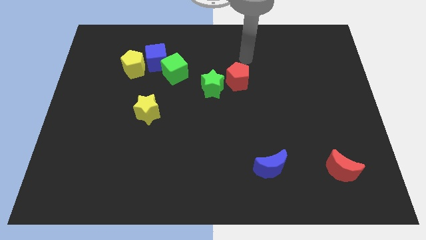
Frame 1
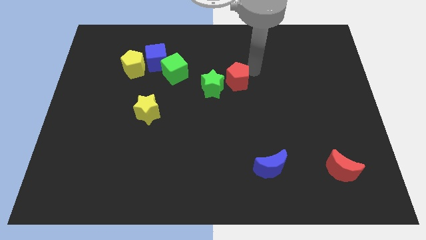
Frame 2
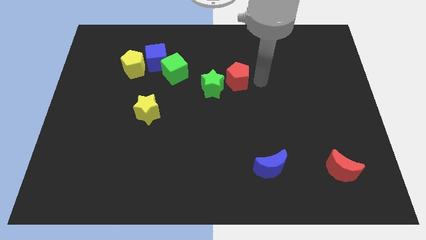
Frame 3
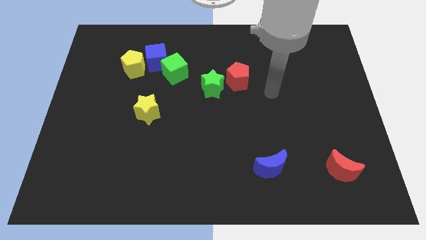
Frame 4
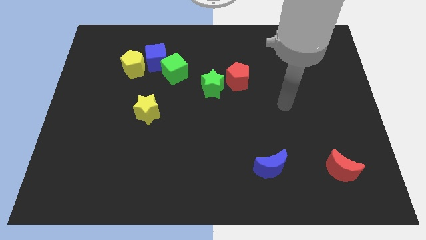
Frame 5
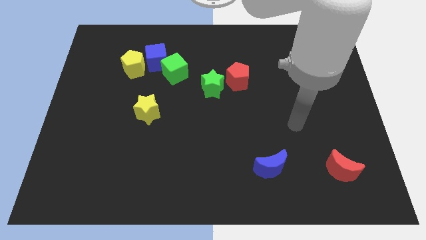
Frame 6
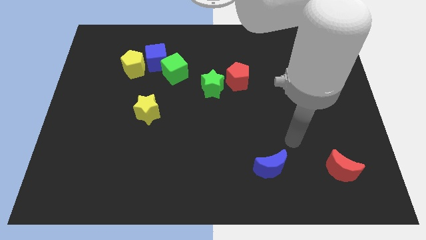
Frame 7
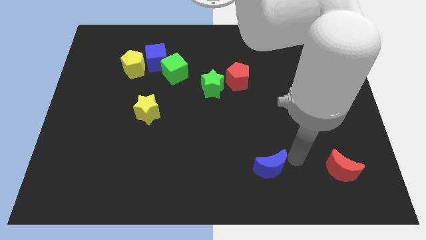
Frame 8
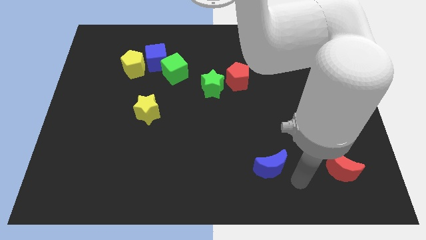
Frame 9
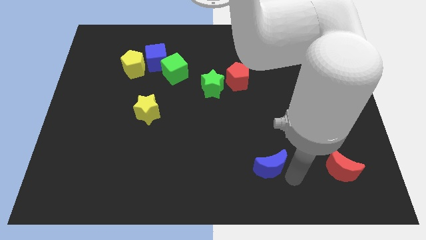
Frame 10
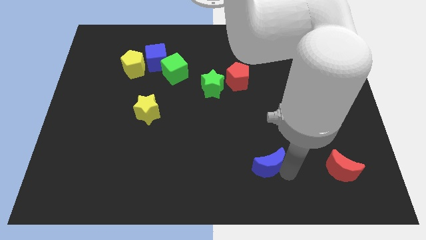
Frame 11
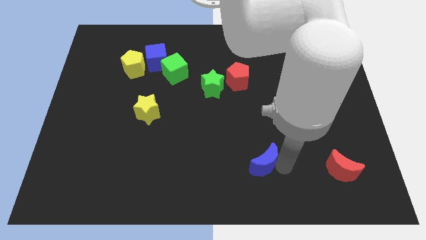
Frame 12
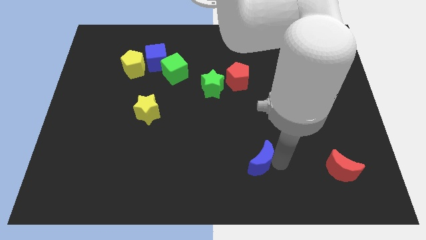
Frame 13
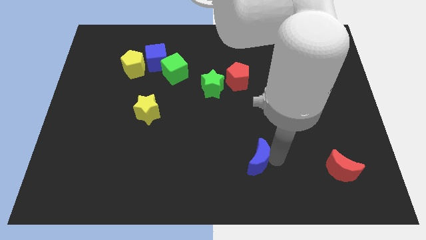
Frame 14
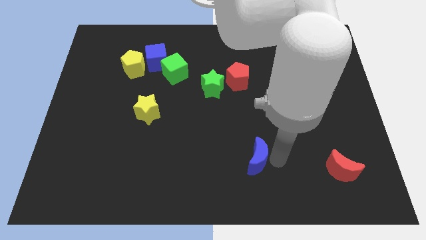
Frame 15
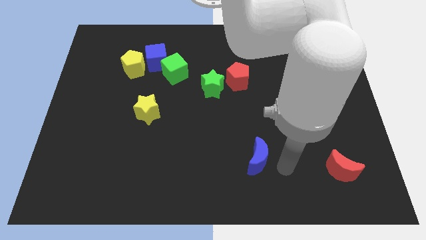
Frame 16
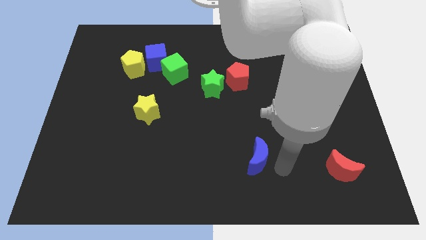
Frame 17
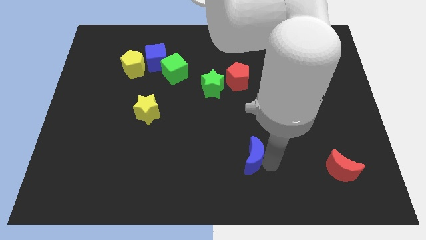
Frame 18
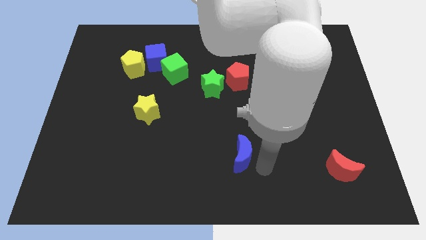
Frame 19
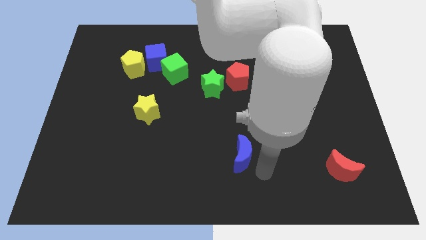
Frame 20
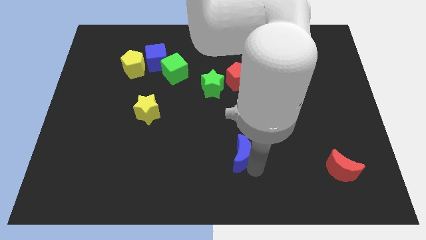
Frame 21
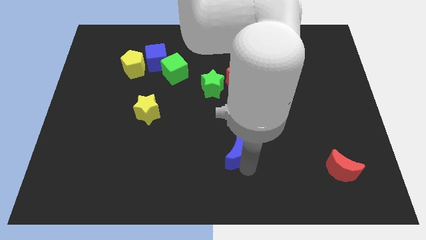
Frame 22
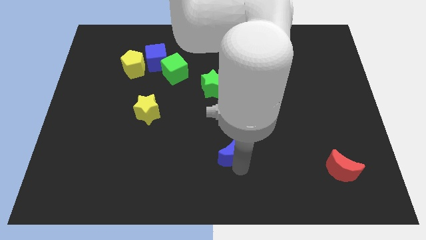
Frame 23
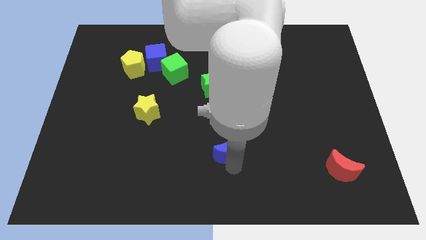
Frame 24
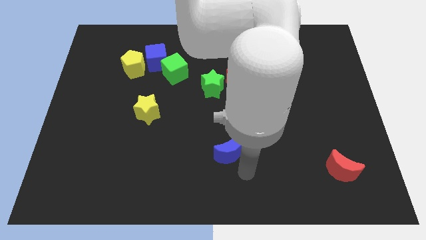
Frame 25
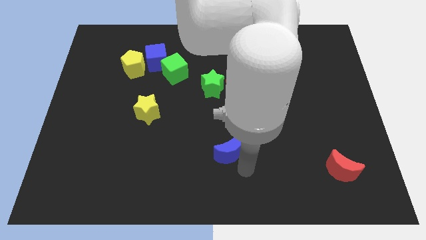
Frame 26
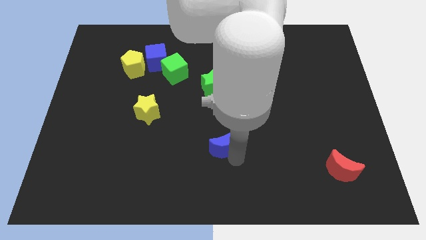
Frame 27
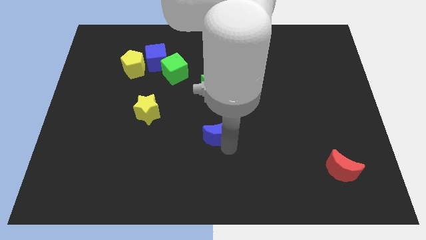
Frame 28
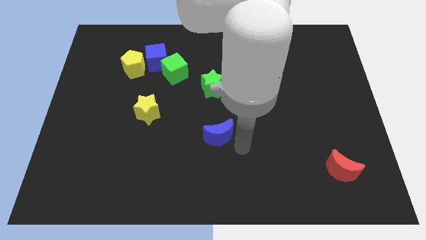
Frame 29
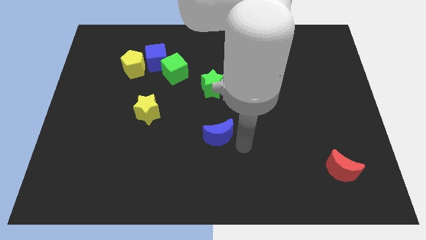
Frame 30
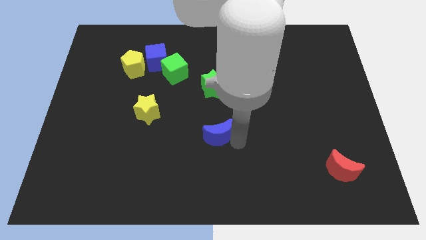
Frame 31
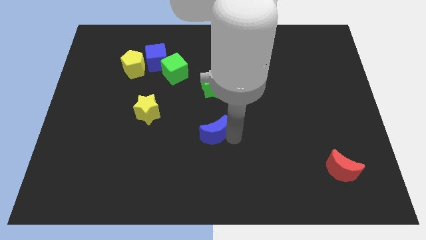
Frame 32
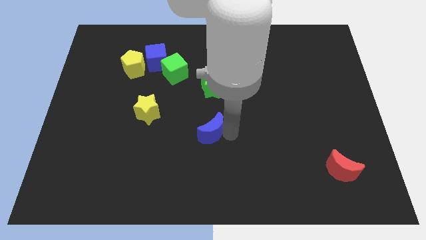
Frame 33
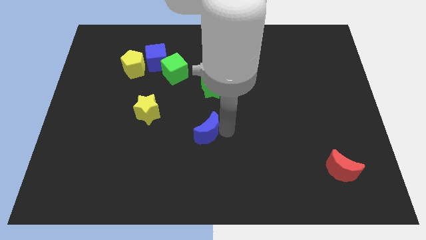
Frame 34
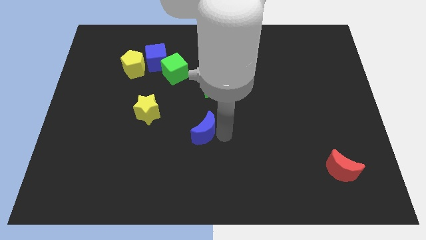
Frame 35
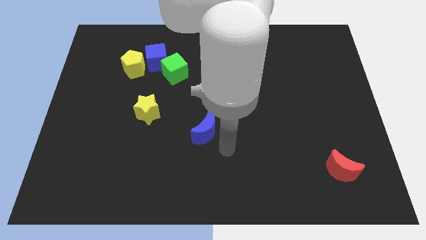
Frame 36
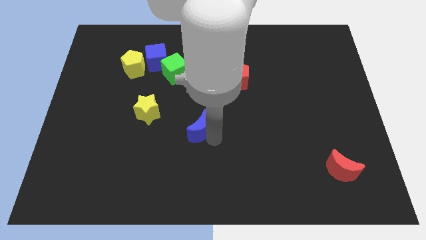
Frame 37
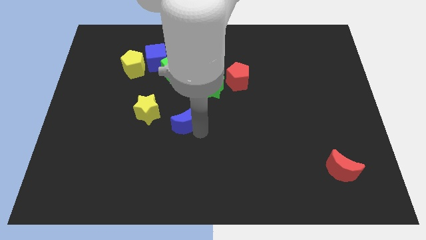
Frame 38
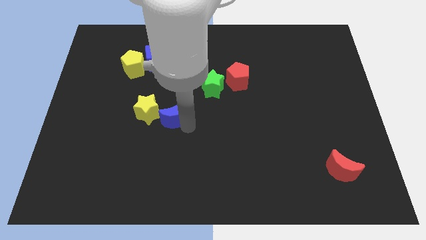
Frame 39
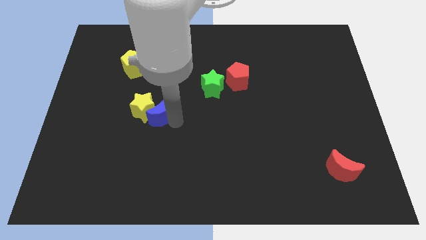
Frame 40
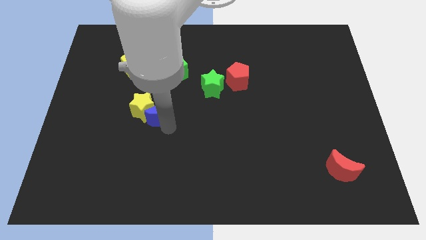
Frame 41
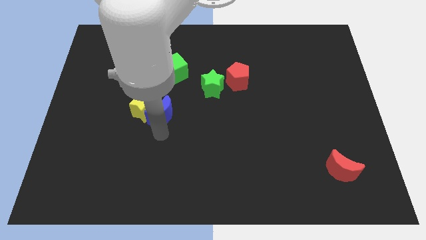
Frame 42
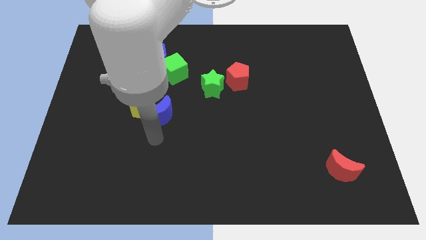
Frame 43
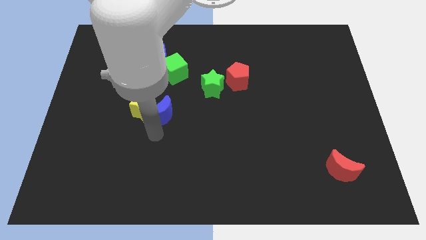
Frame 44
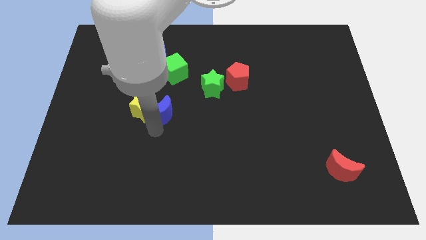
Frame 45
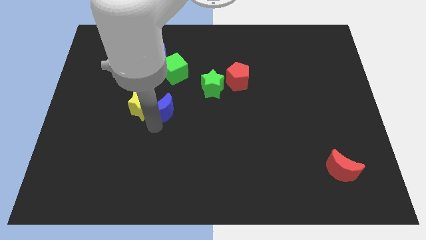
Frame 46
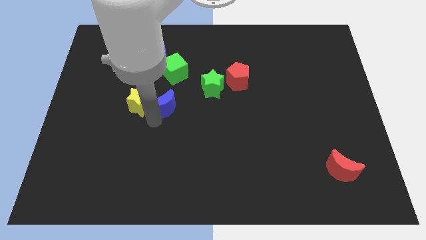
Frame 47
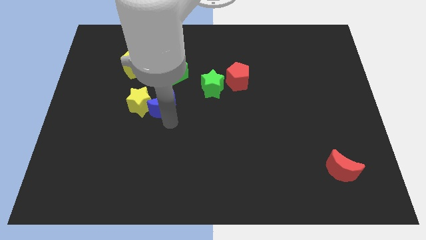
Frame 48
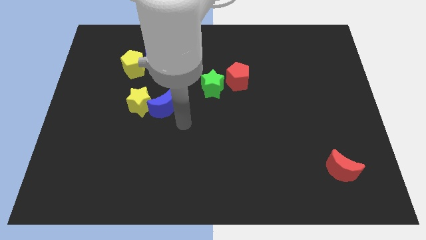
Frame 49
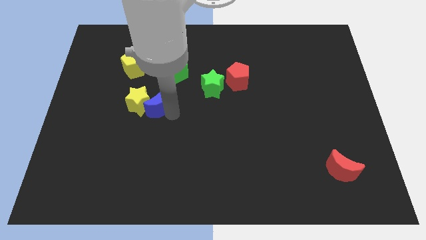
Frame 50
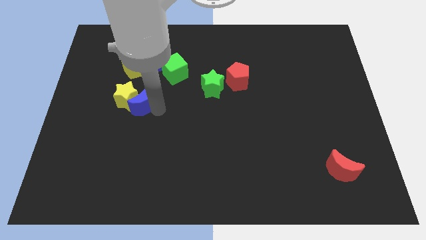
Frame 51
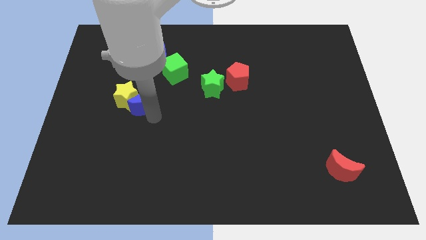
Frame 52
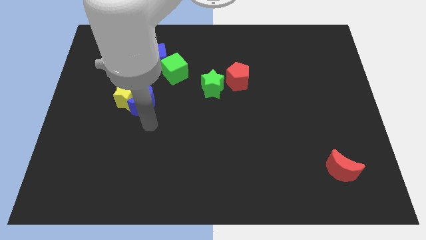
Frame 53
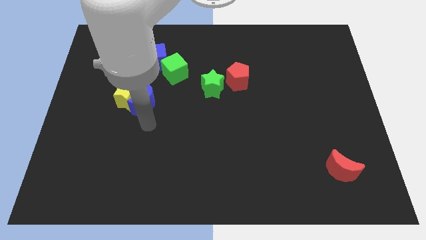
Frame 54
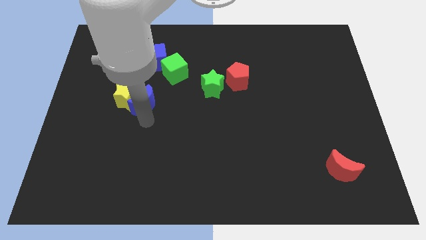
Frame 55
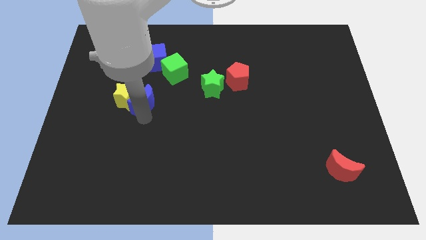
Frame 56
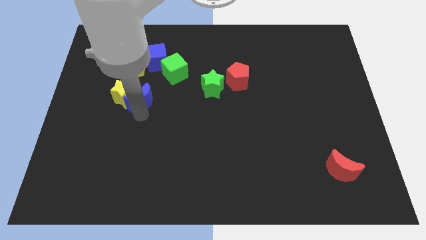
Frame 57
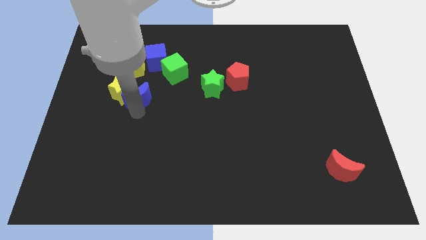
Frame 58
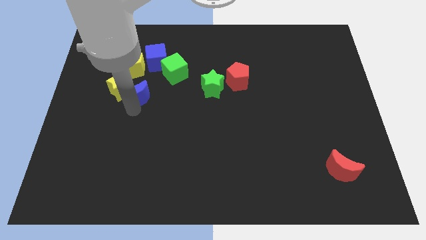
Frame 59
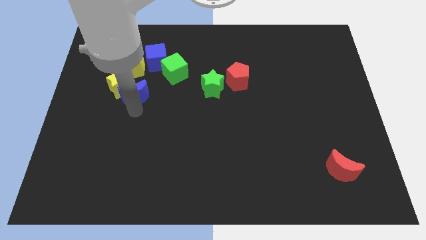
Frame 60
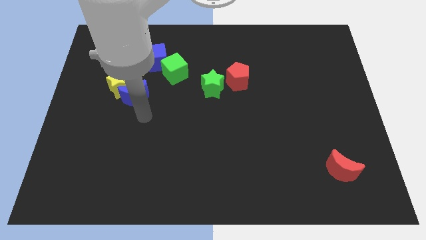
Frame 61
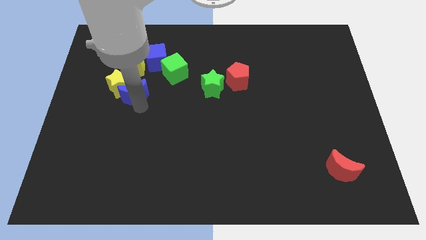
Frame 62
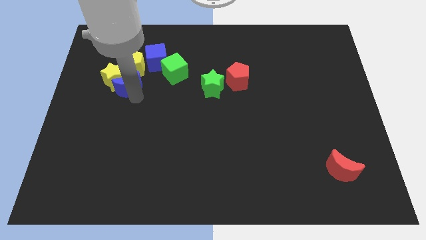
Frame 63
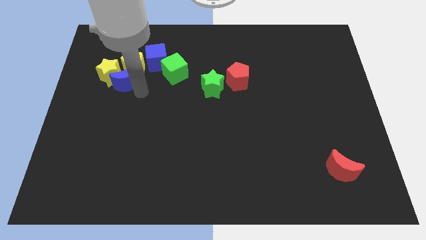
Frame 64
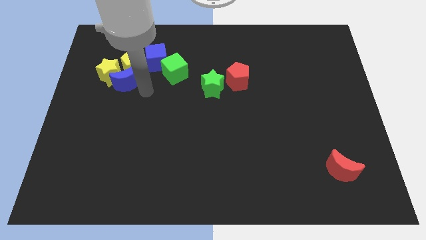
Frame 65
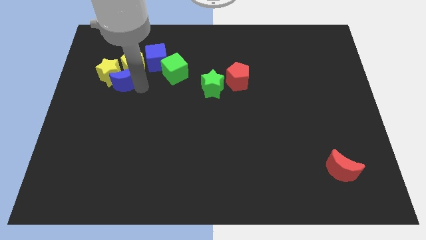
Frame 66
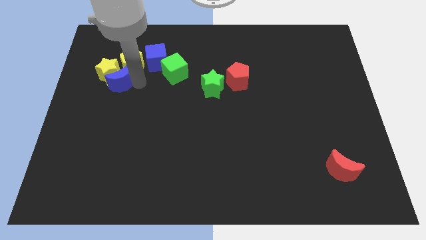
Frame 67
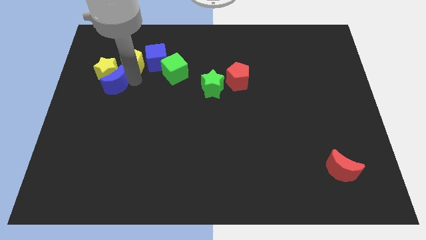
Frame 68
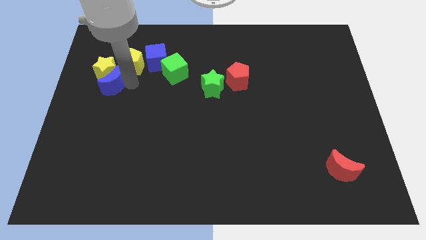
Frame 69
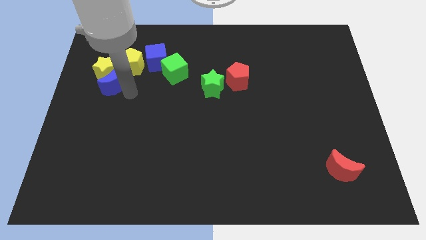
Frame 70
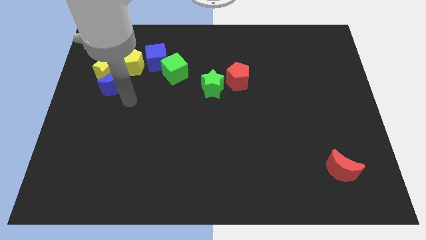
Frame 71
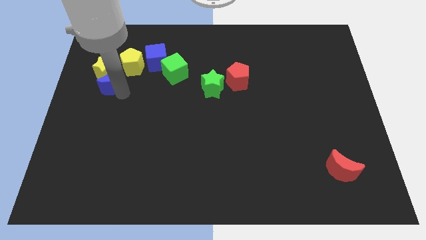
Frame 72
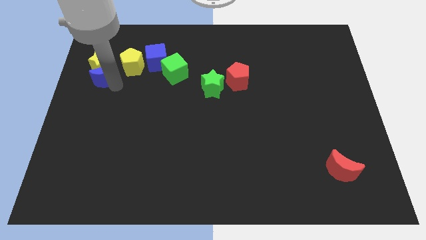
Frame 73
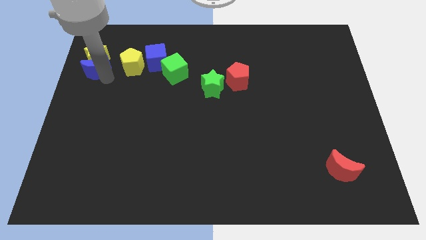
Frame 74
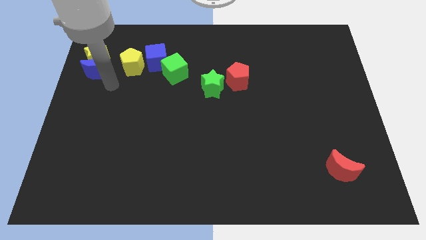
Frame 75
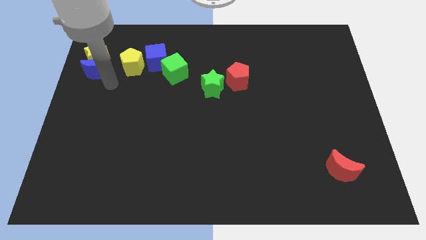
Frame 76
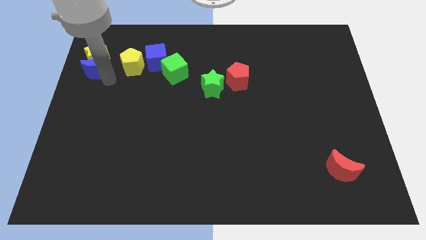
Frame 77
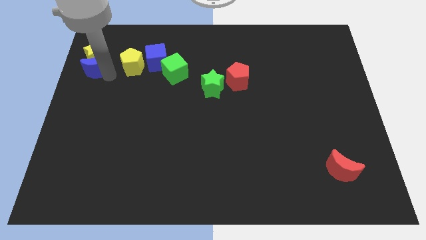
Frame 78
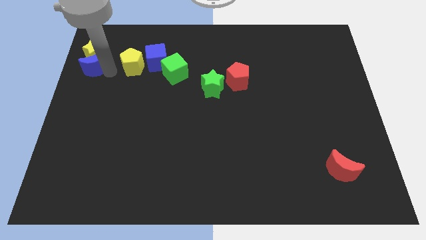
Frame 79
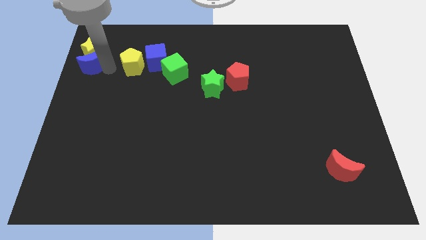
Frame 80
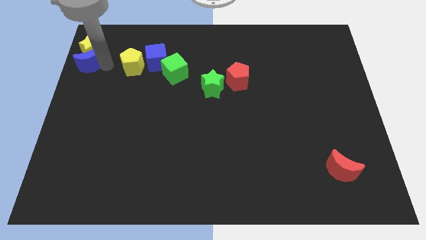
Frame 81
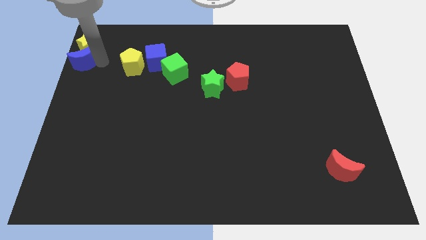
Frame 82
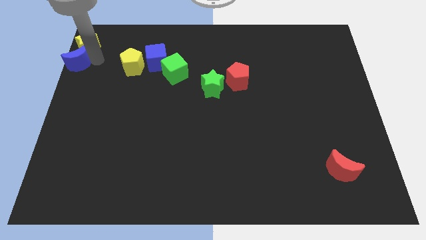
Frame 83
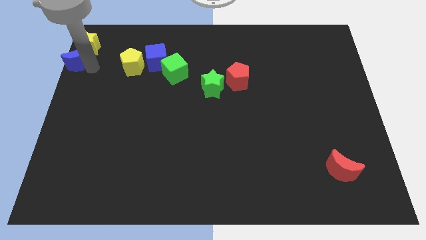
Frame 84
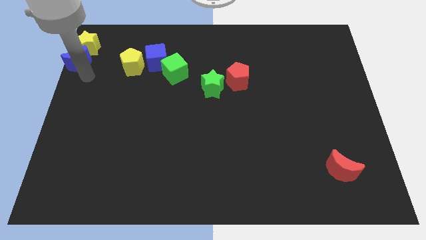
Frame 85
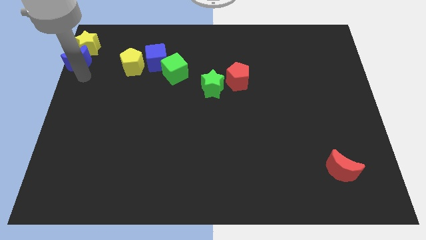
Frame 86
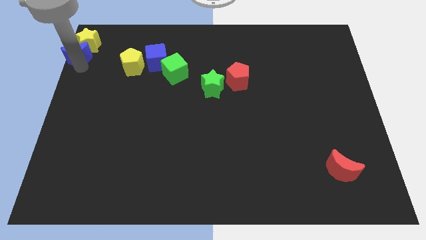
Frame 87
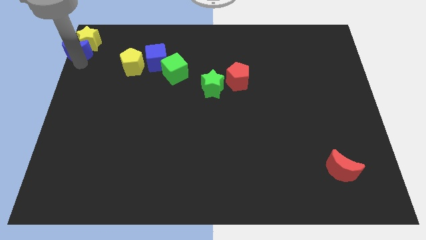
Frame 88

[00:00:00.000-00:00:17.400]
slide the blue moon to the top left corner
